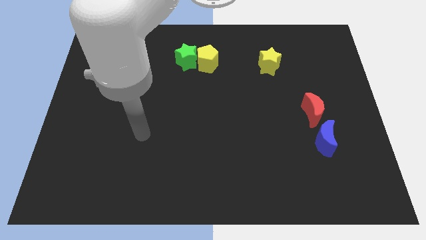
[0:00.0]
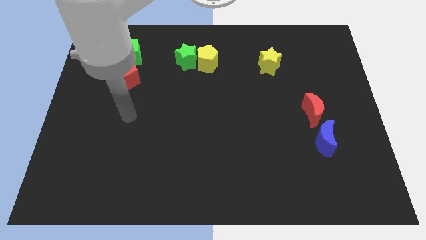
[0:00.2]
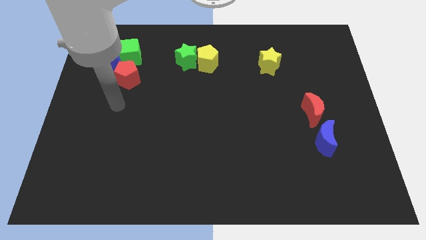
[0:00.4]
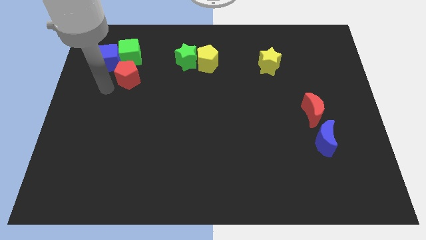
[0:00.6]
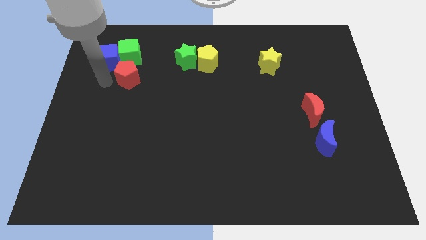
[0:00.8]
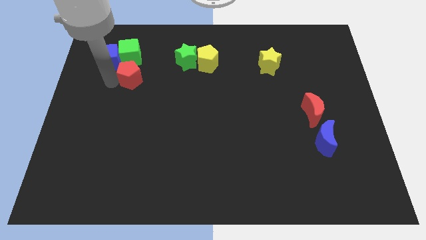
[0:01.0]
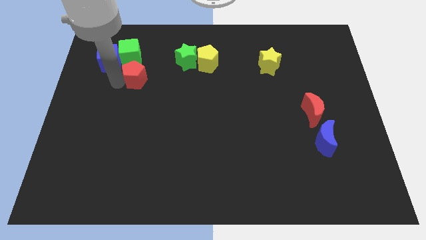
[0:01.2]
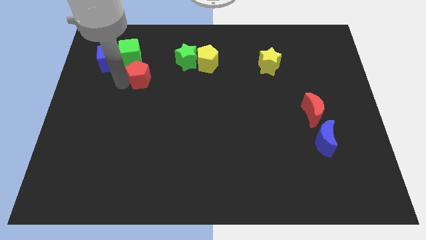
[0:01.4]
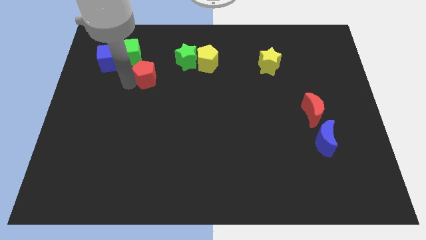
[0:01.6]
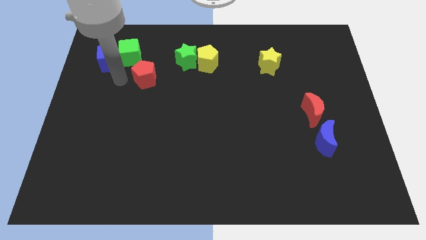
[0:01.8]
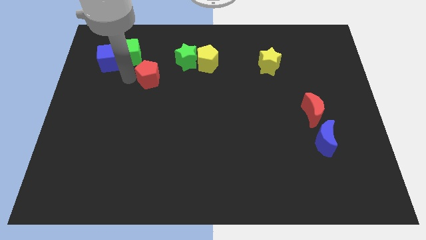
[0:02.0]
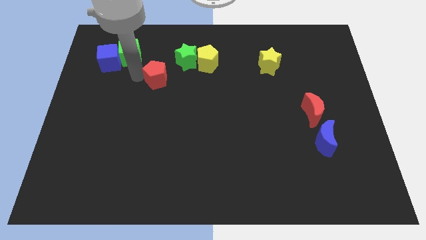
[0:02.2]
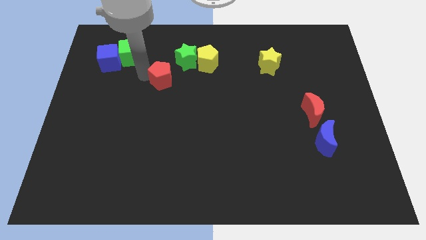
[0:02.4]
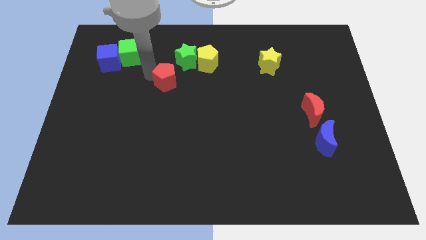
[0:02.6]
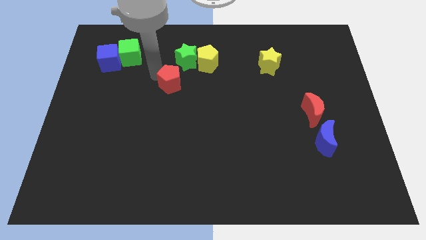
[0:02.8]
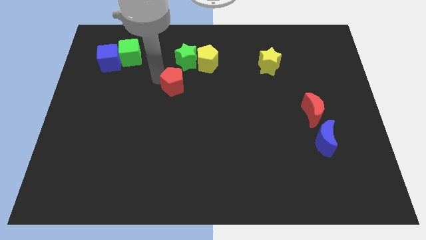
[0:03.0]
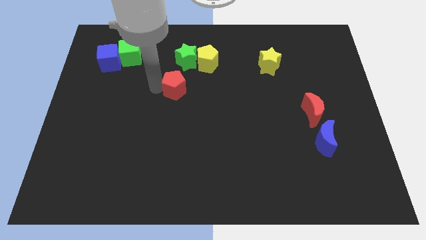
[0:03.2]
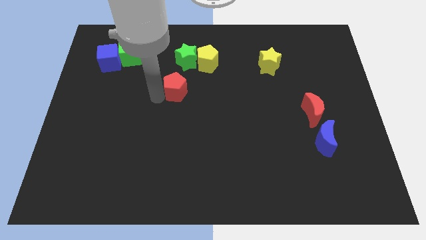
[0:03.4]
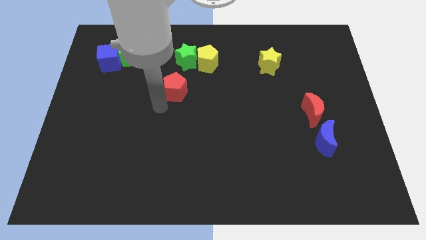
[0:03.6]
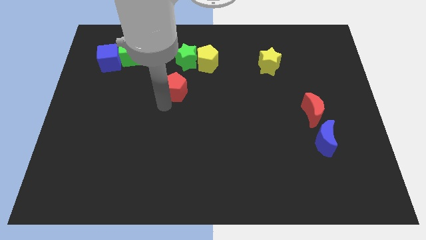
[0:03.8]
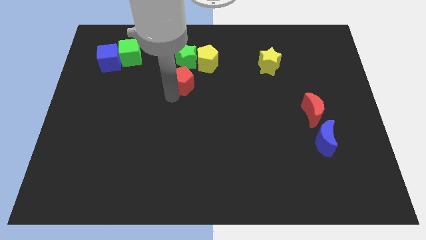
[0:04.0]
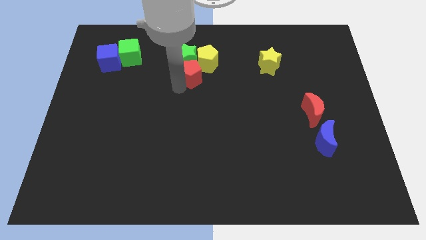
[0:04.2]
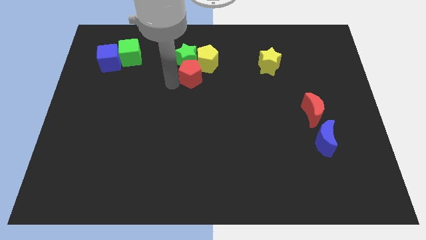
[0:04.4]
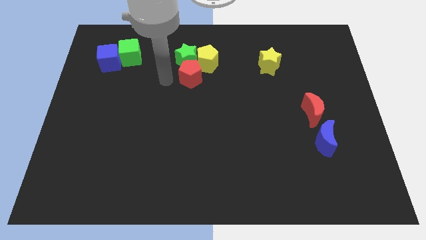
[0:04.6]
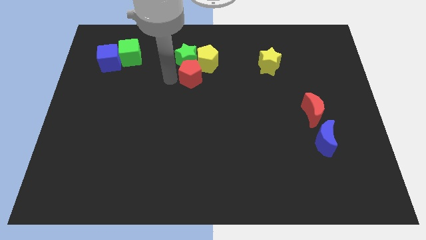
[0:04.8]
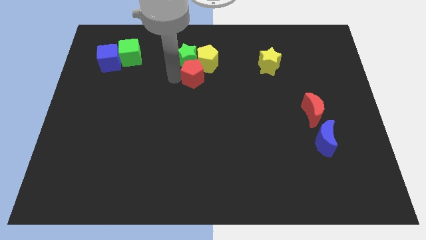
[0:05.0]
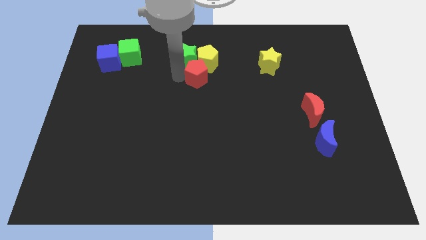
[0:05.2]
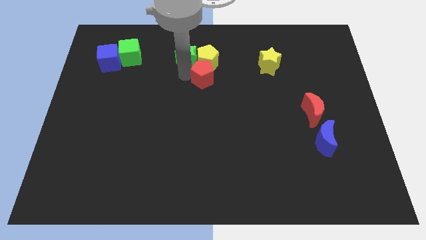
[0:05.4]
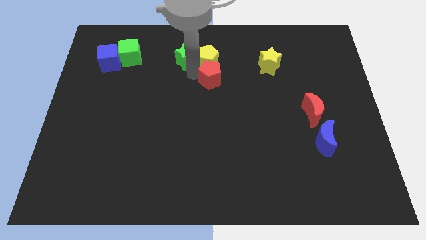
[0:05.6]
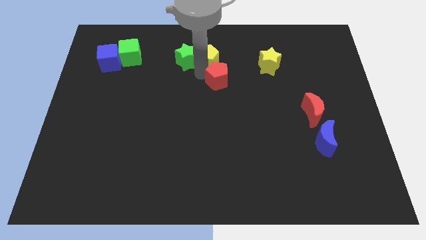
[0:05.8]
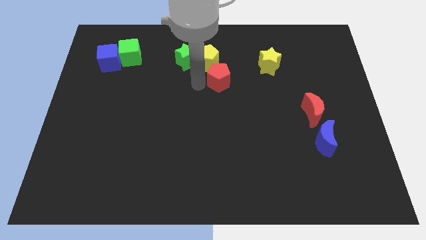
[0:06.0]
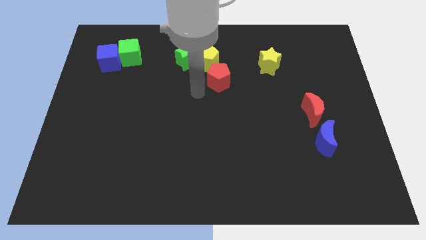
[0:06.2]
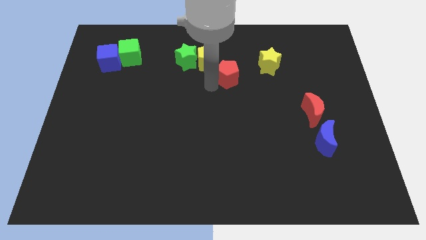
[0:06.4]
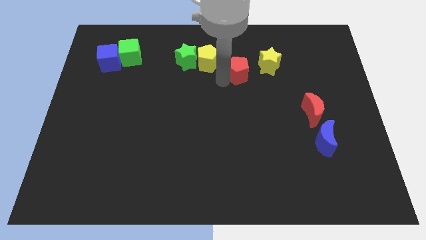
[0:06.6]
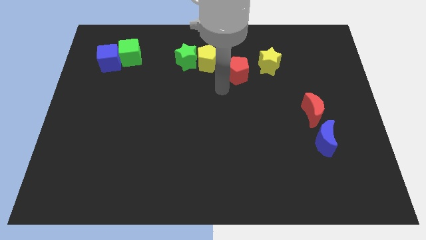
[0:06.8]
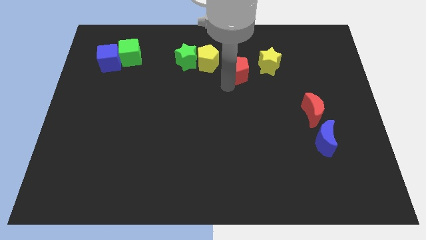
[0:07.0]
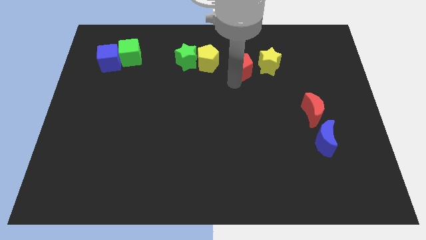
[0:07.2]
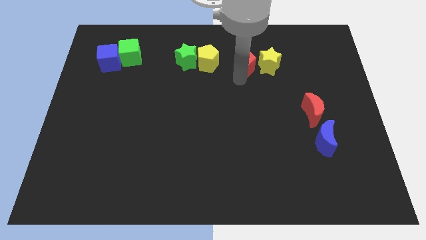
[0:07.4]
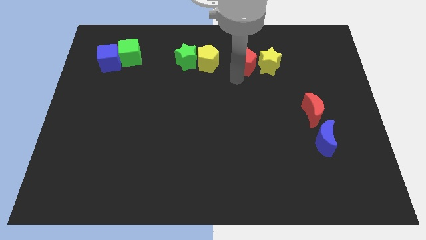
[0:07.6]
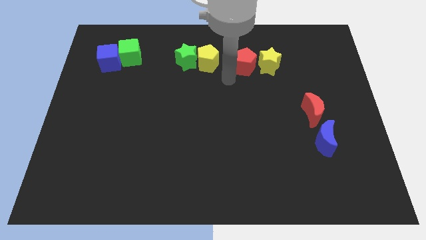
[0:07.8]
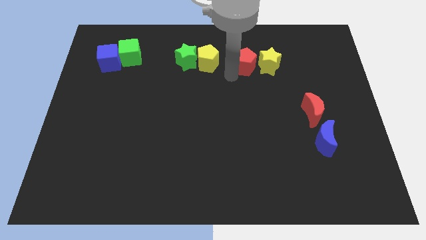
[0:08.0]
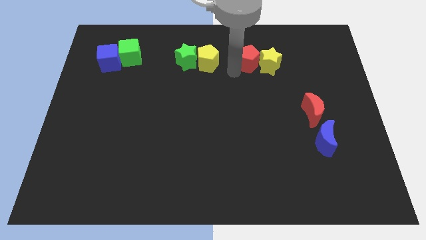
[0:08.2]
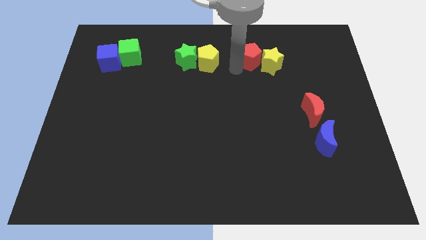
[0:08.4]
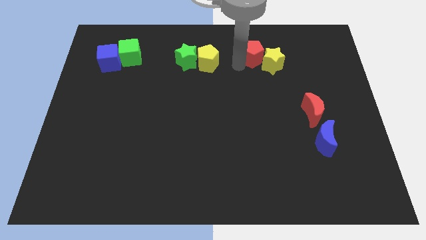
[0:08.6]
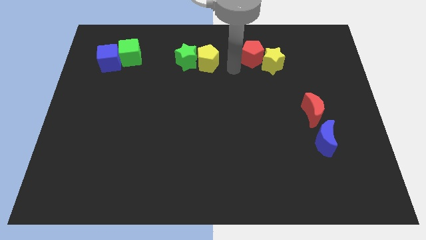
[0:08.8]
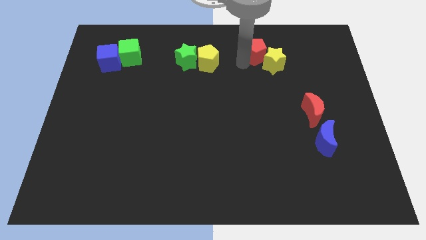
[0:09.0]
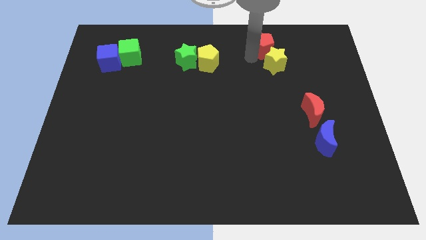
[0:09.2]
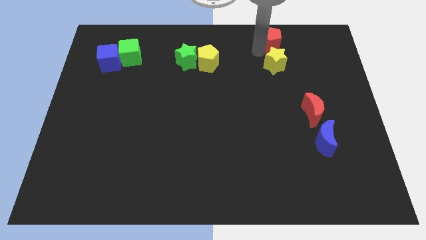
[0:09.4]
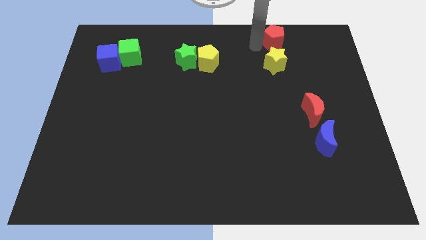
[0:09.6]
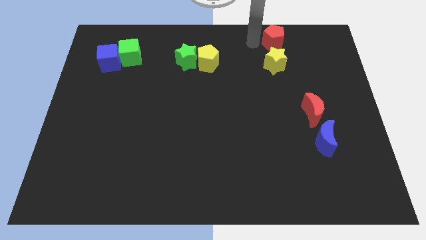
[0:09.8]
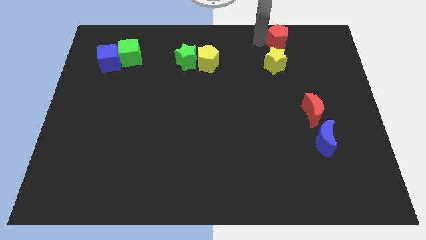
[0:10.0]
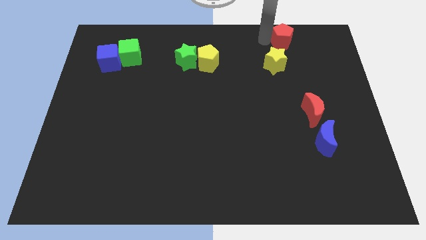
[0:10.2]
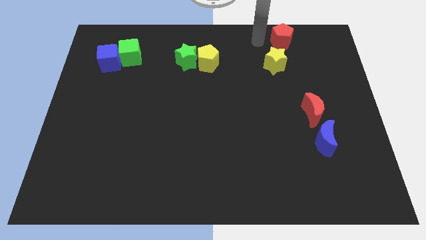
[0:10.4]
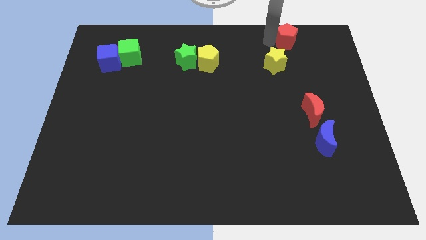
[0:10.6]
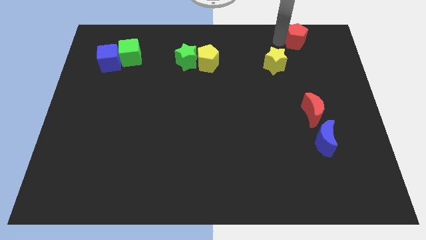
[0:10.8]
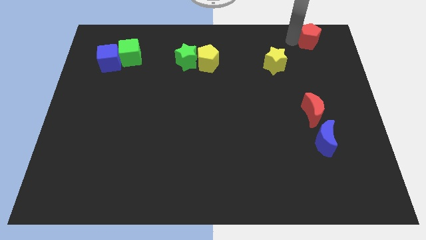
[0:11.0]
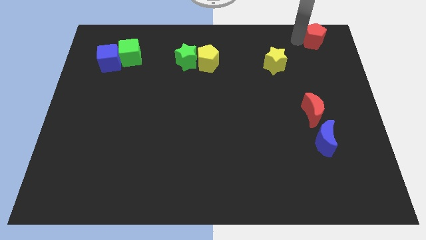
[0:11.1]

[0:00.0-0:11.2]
push the red pentagon to the top right corner
